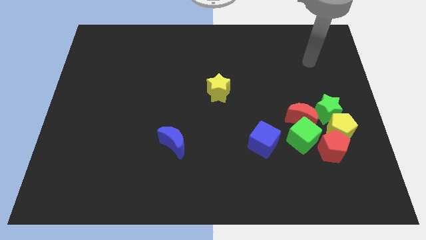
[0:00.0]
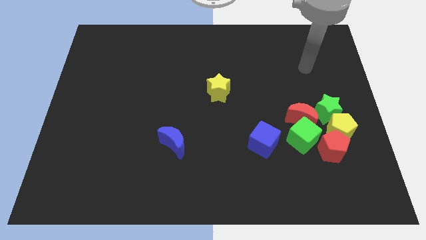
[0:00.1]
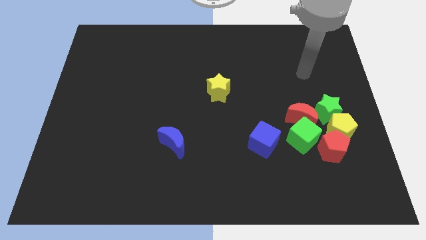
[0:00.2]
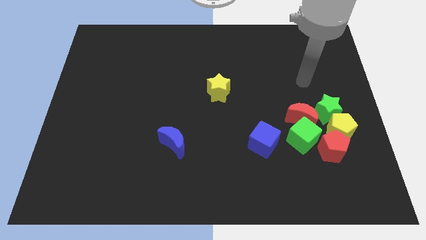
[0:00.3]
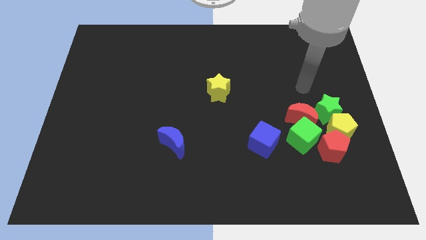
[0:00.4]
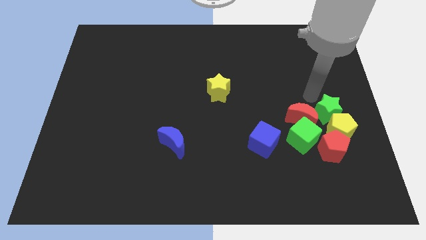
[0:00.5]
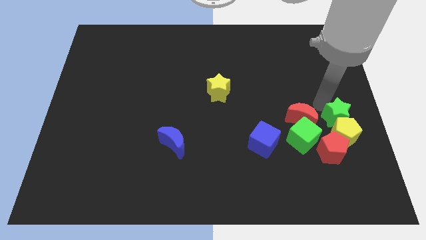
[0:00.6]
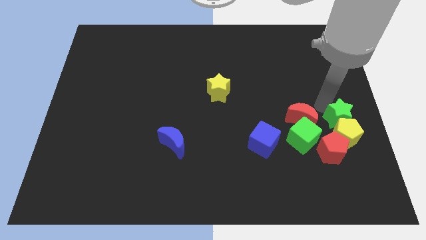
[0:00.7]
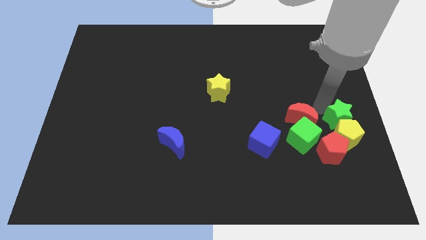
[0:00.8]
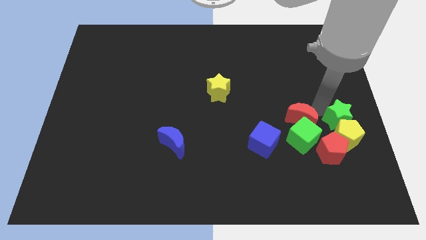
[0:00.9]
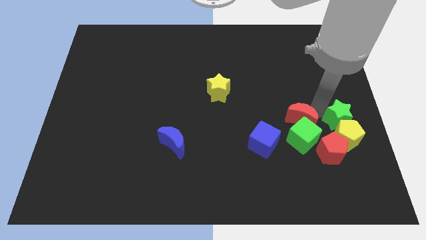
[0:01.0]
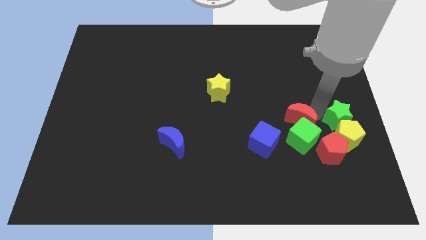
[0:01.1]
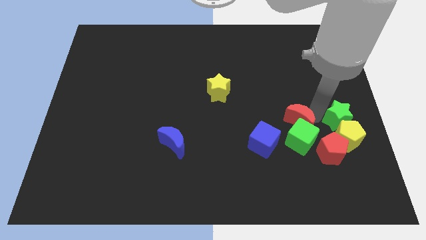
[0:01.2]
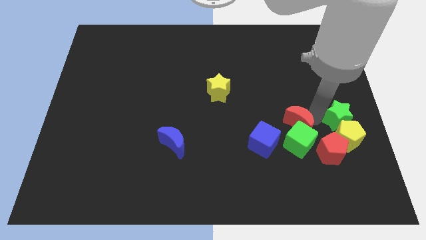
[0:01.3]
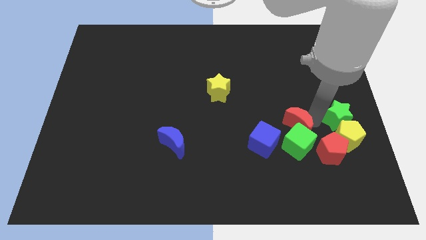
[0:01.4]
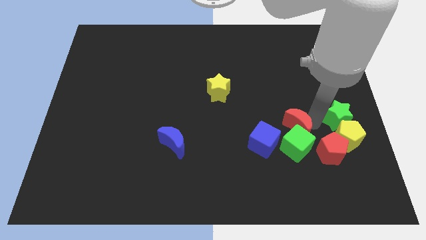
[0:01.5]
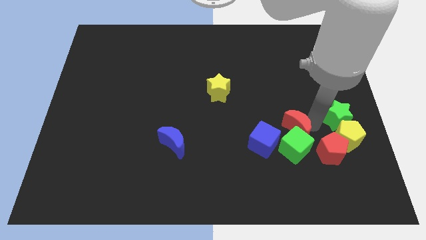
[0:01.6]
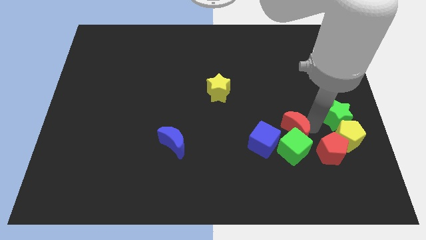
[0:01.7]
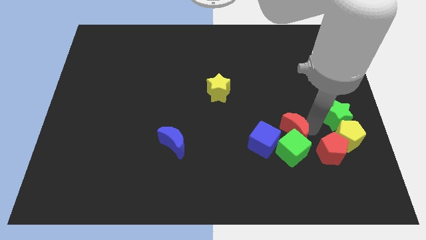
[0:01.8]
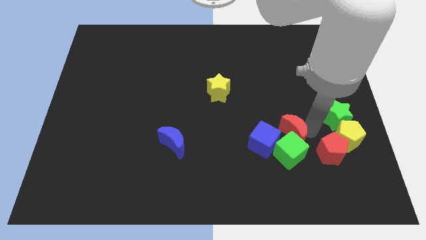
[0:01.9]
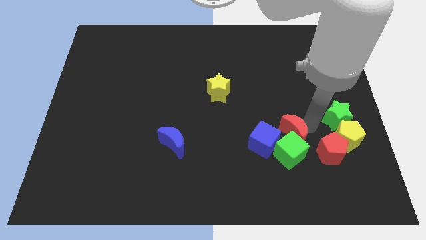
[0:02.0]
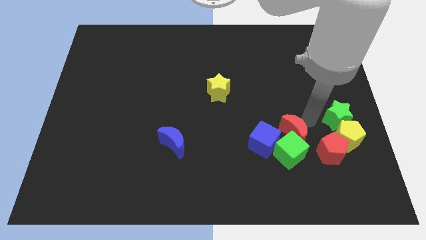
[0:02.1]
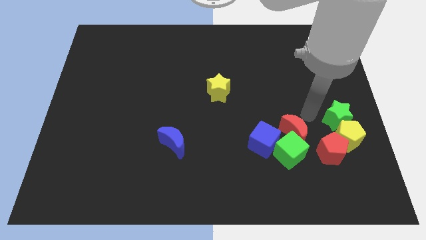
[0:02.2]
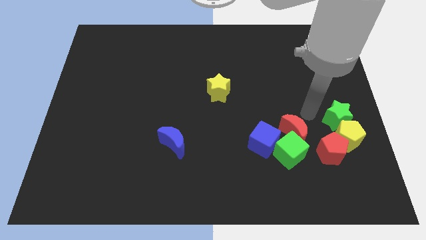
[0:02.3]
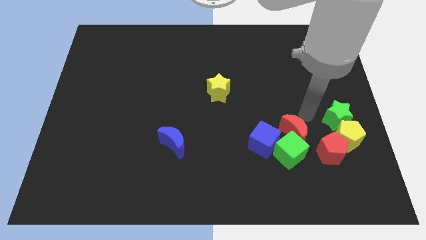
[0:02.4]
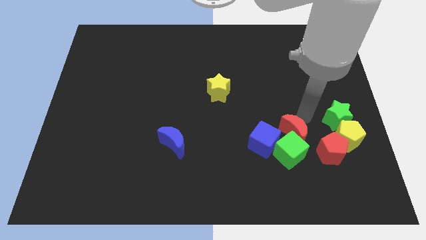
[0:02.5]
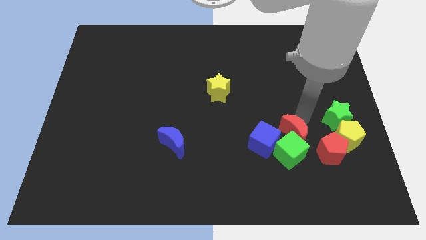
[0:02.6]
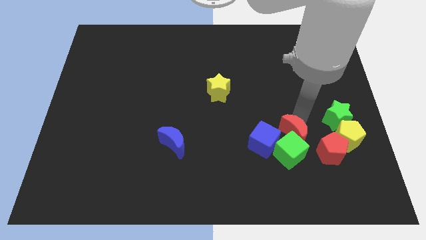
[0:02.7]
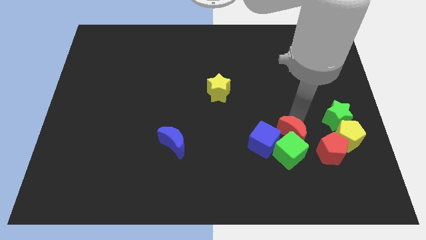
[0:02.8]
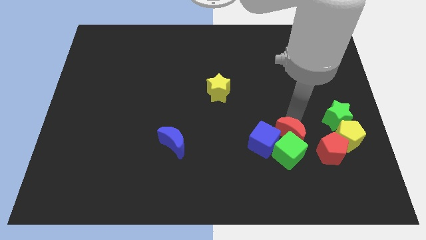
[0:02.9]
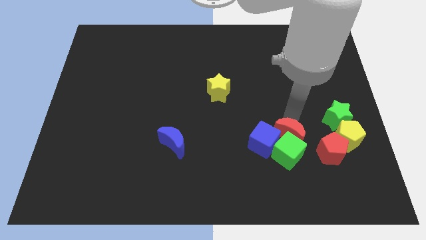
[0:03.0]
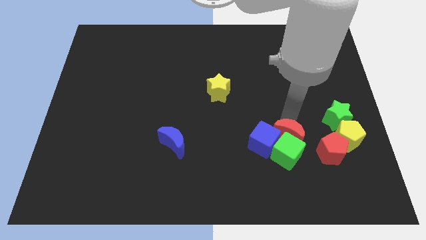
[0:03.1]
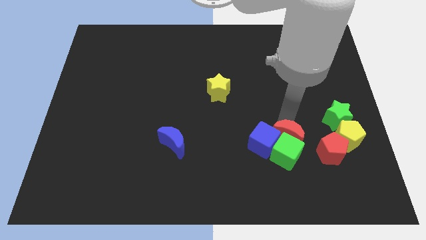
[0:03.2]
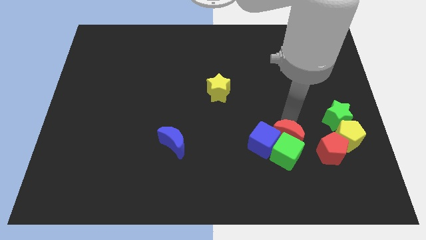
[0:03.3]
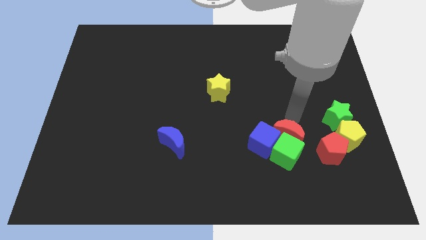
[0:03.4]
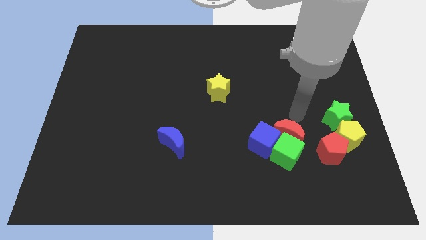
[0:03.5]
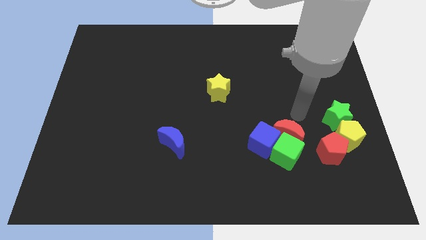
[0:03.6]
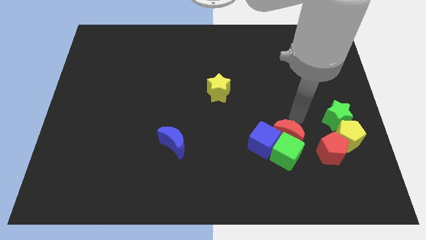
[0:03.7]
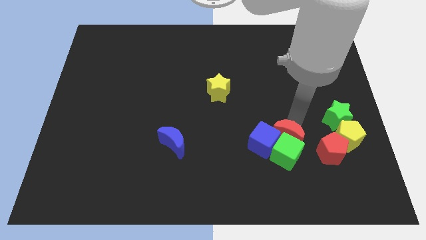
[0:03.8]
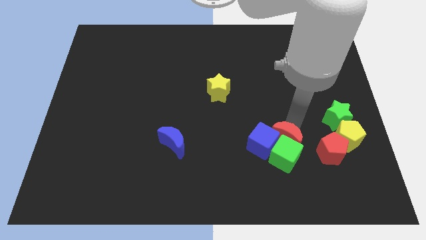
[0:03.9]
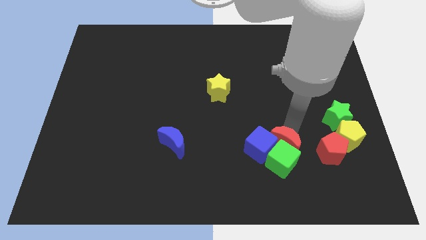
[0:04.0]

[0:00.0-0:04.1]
slide the red moon downwards and then to the left a little

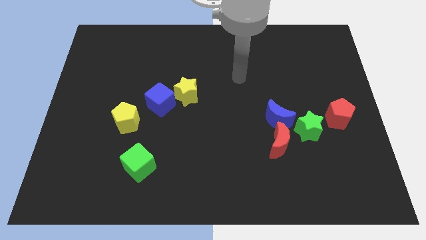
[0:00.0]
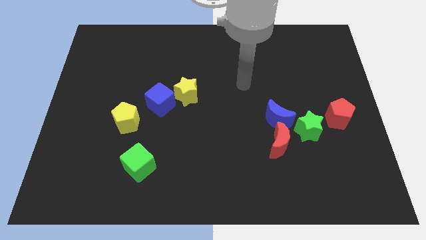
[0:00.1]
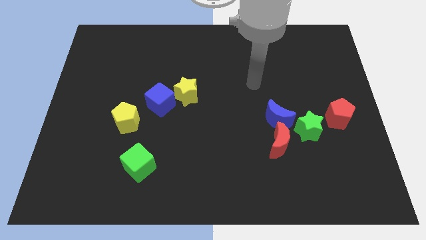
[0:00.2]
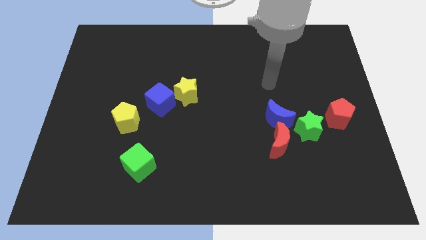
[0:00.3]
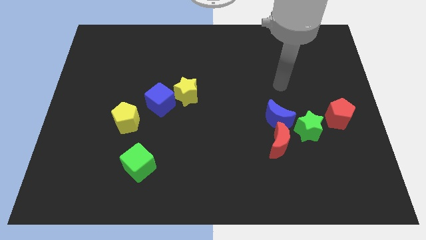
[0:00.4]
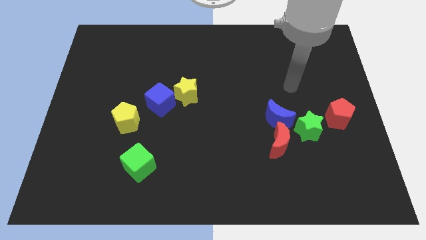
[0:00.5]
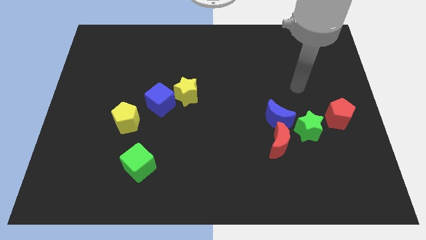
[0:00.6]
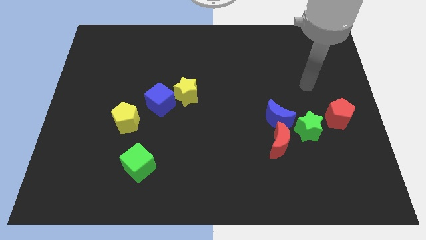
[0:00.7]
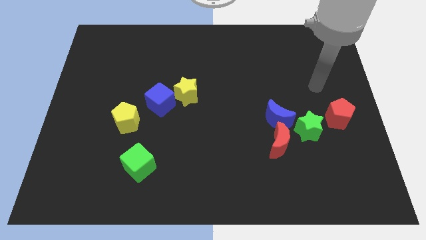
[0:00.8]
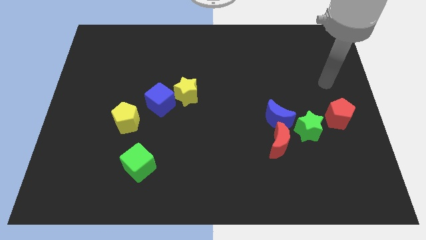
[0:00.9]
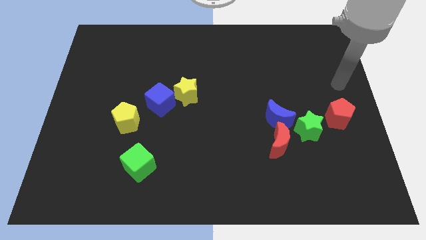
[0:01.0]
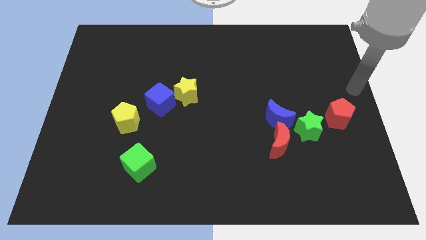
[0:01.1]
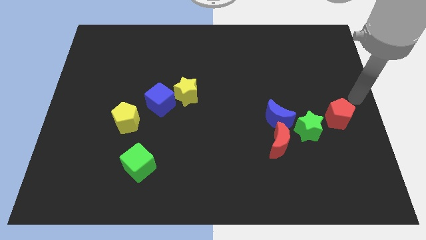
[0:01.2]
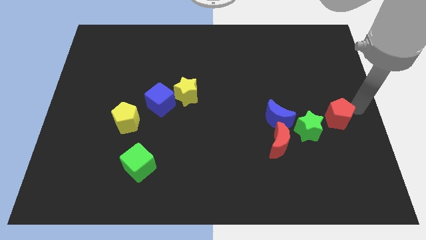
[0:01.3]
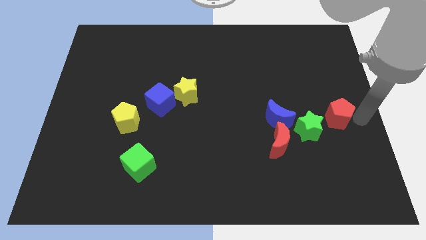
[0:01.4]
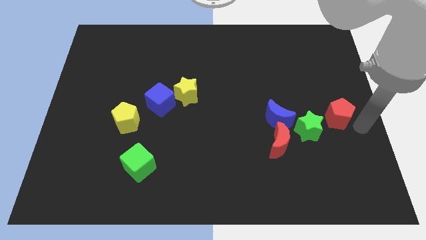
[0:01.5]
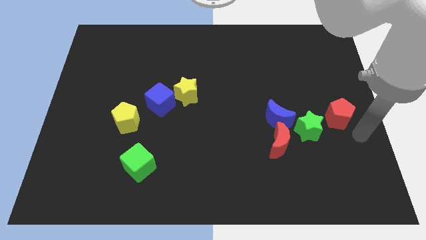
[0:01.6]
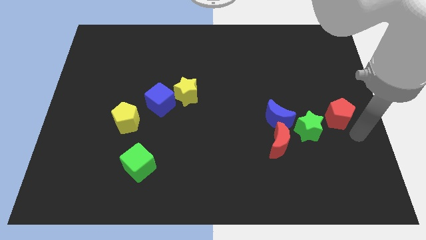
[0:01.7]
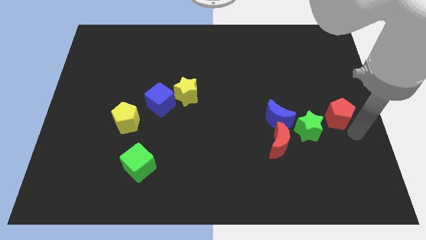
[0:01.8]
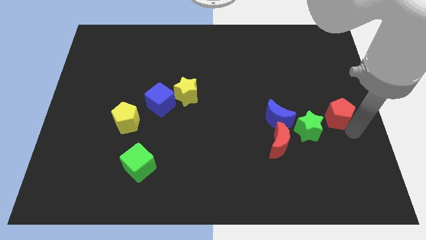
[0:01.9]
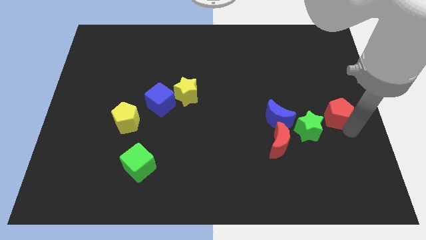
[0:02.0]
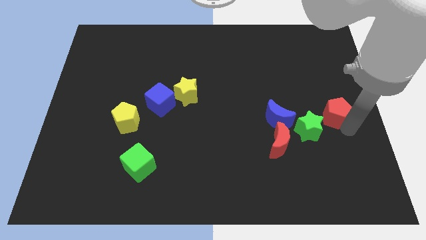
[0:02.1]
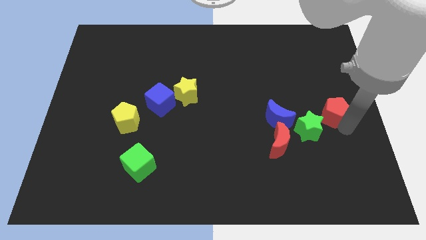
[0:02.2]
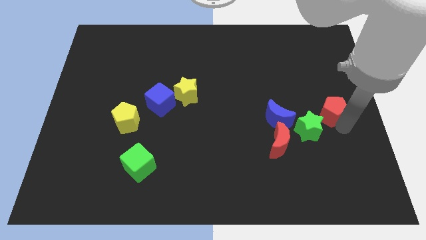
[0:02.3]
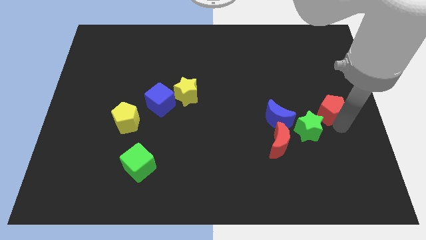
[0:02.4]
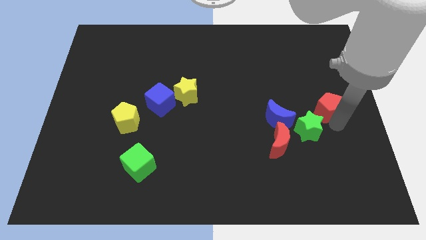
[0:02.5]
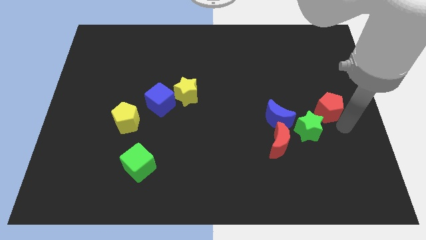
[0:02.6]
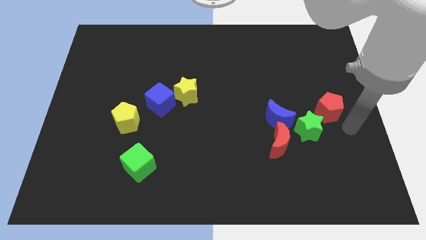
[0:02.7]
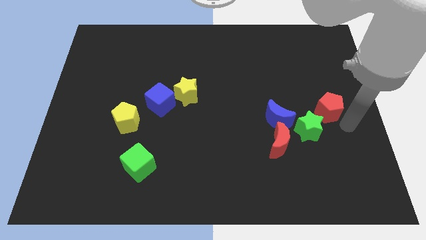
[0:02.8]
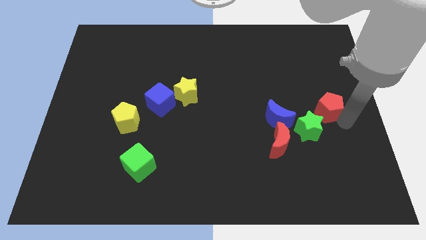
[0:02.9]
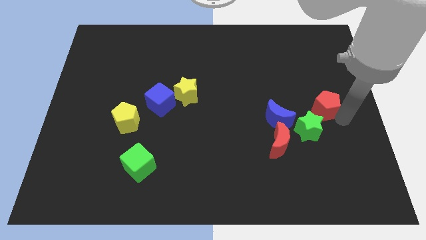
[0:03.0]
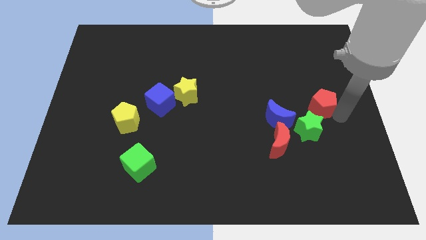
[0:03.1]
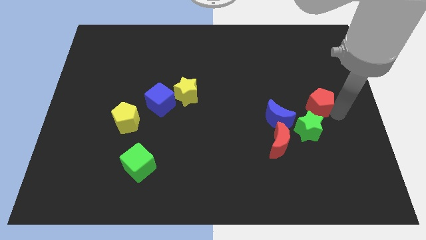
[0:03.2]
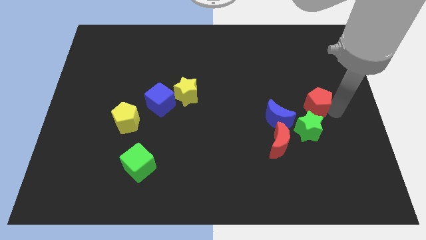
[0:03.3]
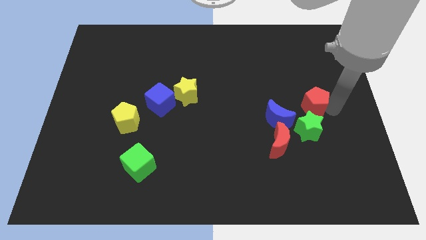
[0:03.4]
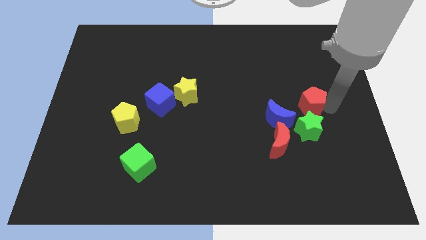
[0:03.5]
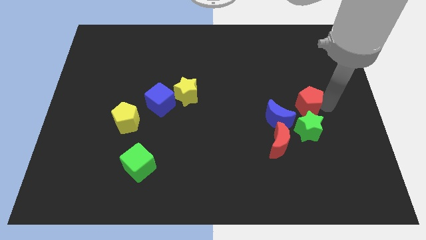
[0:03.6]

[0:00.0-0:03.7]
slightly move the red pentagon up and then left

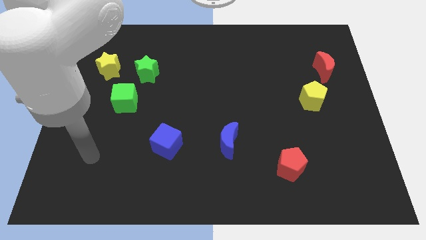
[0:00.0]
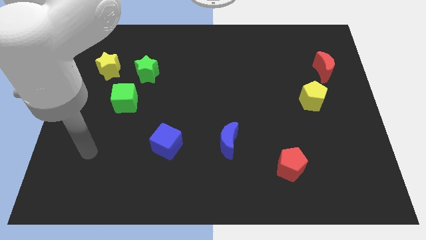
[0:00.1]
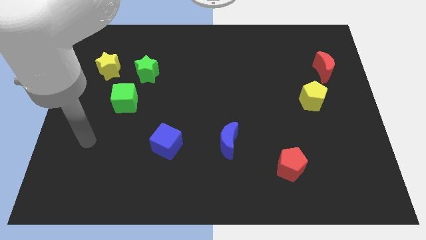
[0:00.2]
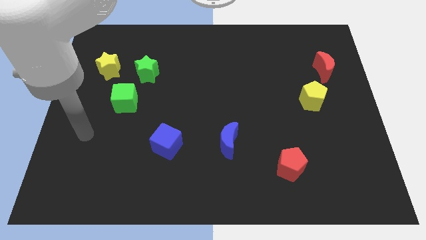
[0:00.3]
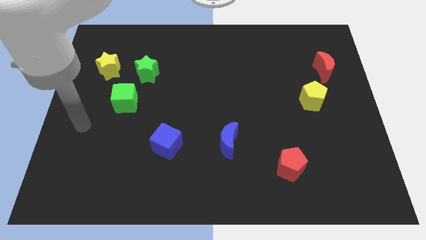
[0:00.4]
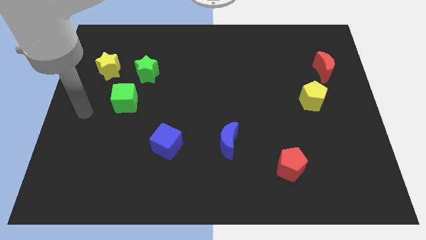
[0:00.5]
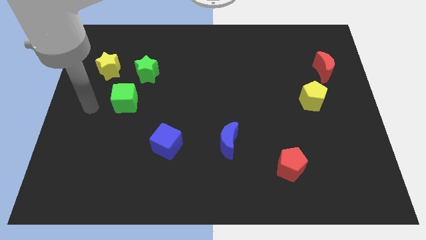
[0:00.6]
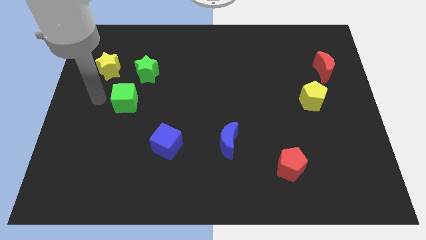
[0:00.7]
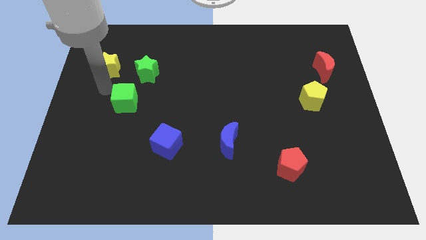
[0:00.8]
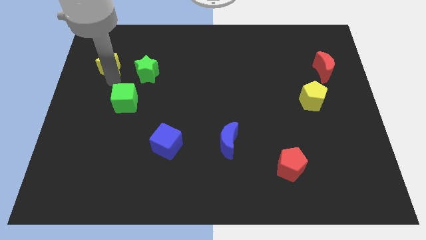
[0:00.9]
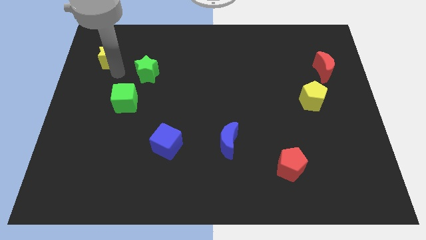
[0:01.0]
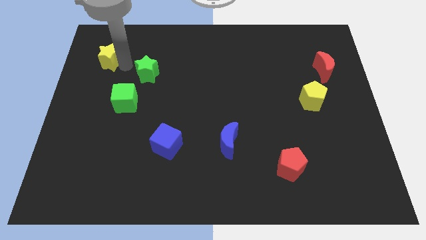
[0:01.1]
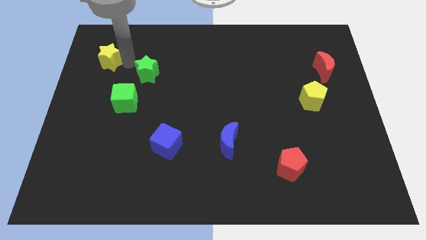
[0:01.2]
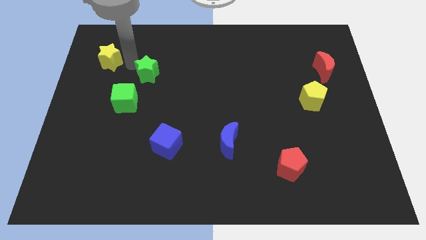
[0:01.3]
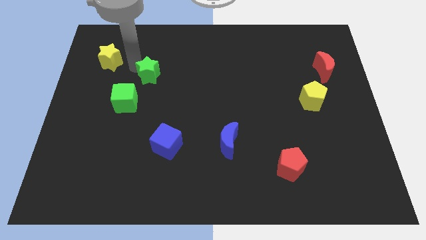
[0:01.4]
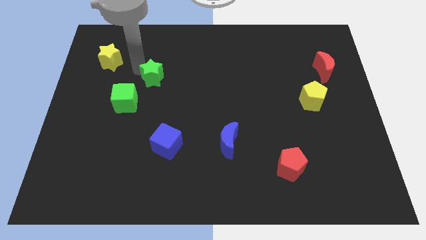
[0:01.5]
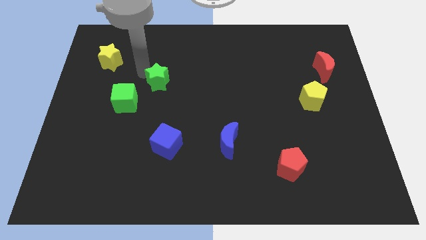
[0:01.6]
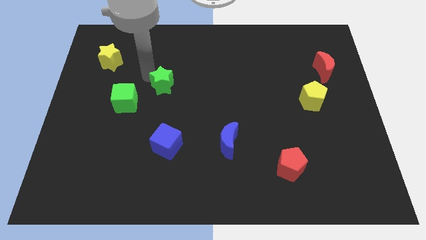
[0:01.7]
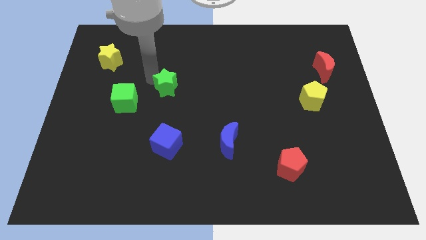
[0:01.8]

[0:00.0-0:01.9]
push the green star down and right a little bit
